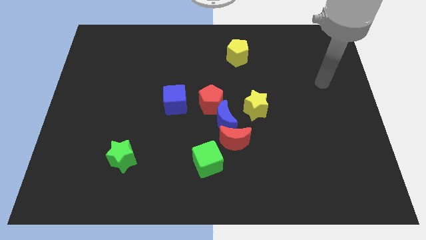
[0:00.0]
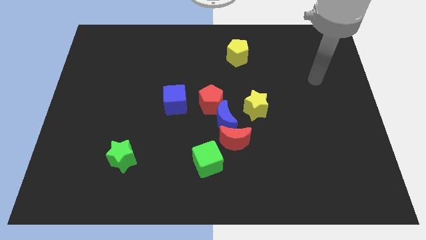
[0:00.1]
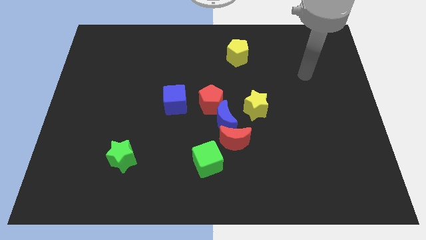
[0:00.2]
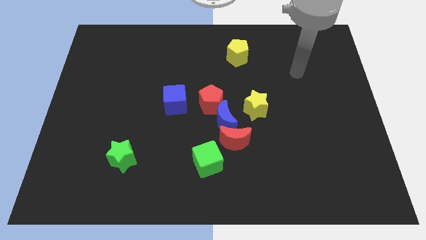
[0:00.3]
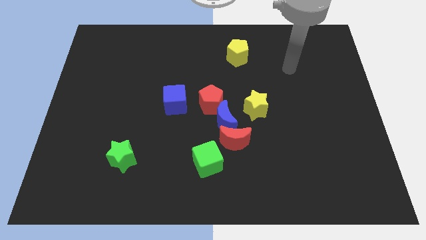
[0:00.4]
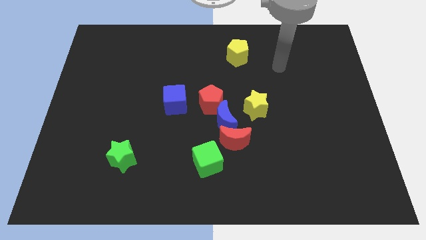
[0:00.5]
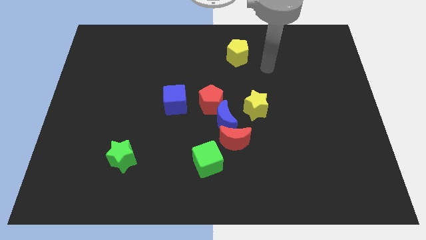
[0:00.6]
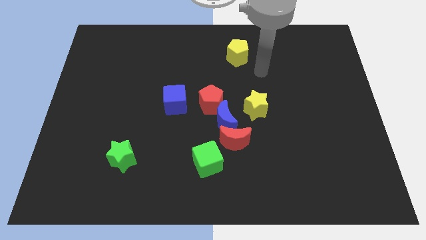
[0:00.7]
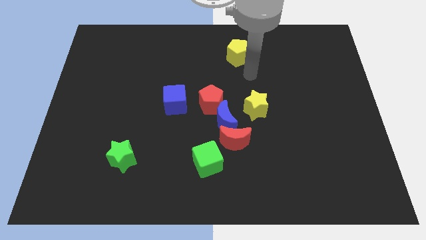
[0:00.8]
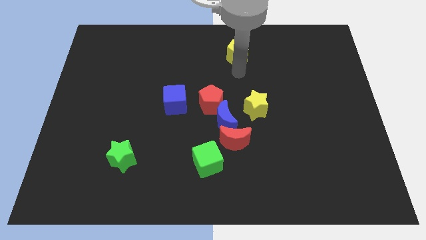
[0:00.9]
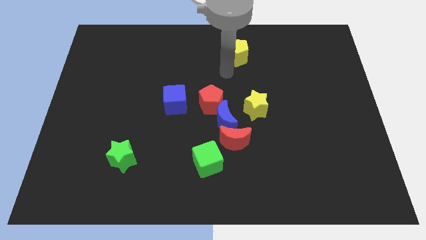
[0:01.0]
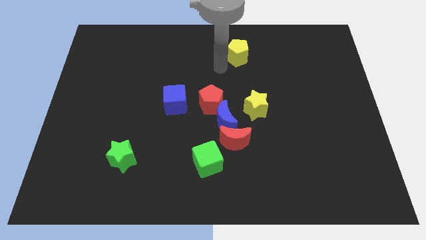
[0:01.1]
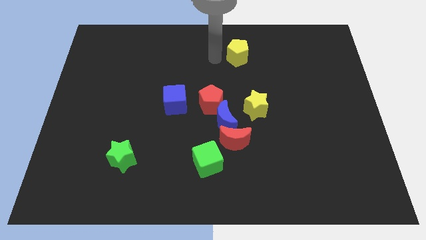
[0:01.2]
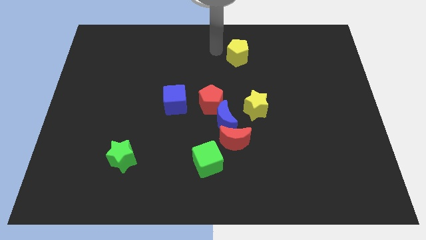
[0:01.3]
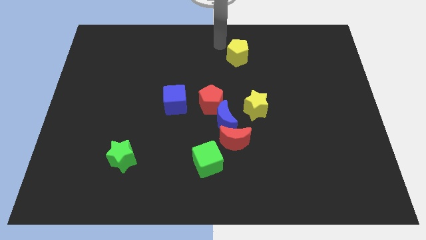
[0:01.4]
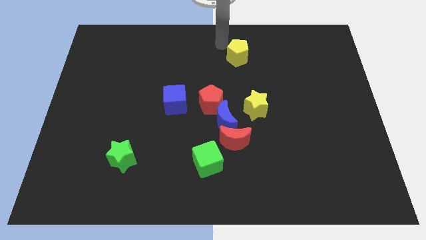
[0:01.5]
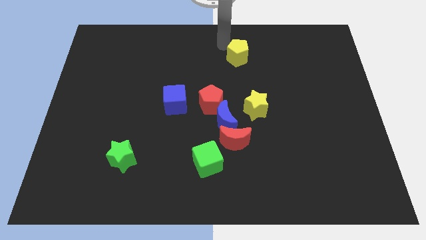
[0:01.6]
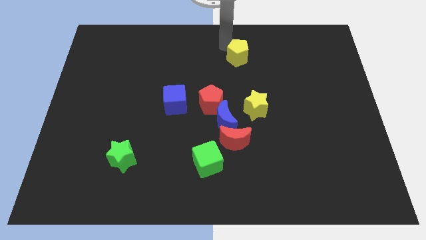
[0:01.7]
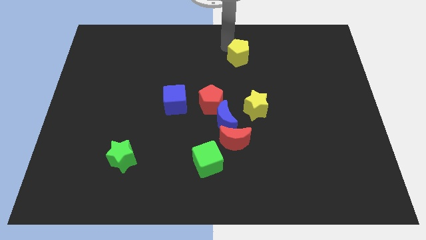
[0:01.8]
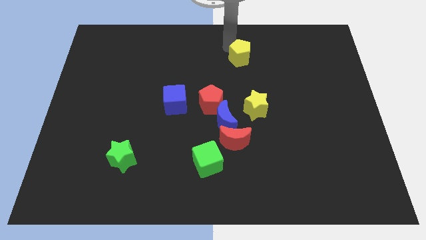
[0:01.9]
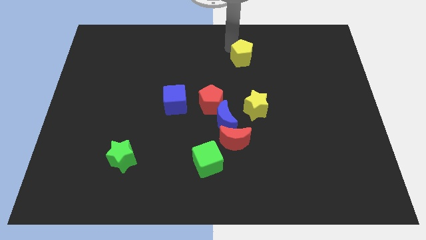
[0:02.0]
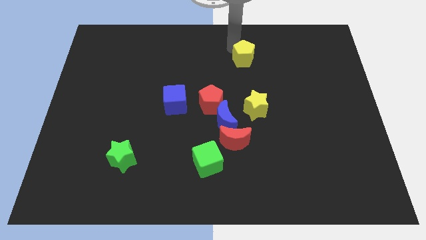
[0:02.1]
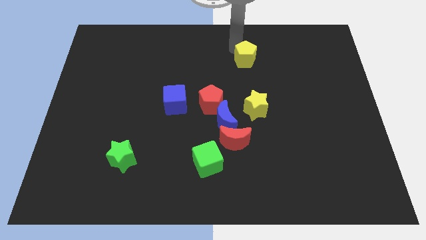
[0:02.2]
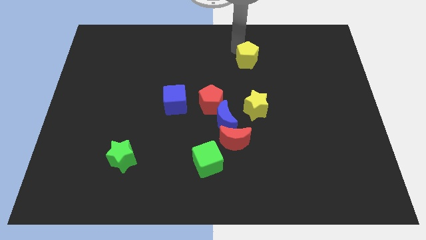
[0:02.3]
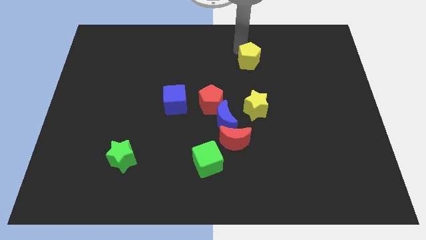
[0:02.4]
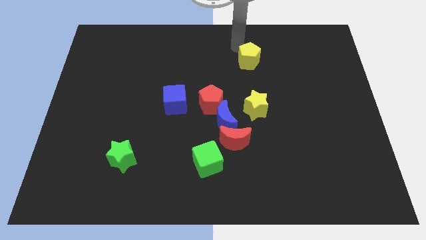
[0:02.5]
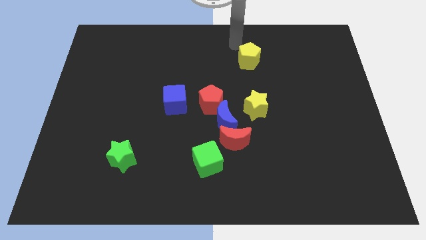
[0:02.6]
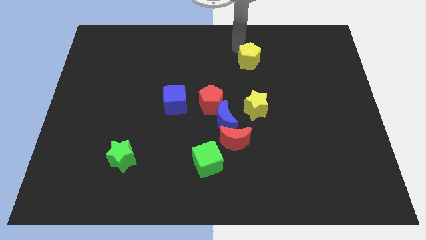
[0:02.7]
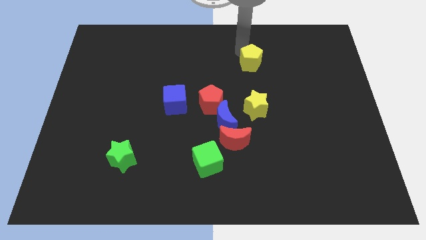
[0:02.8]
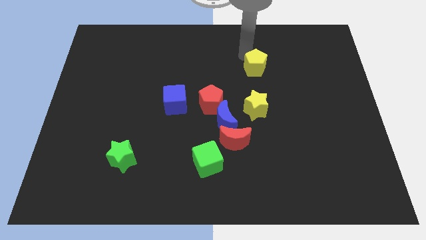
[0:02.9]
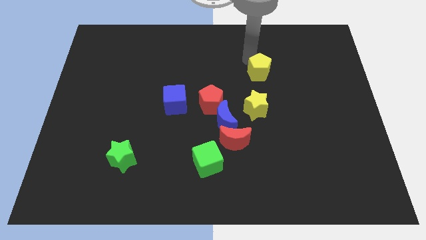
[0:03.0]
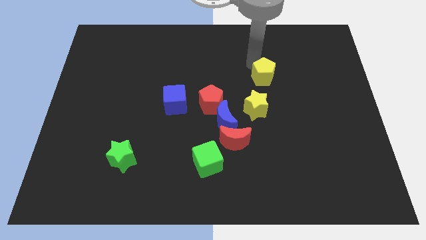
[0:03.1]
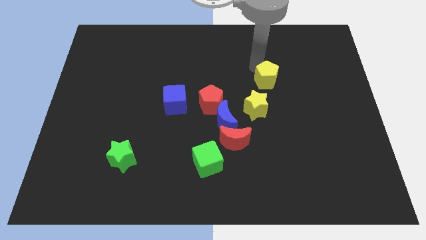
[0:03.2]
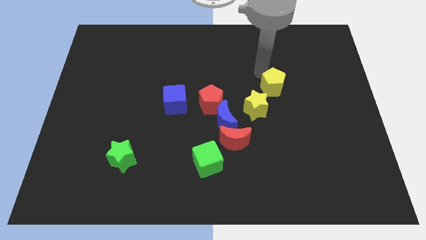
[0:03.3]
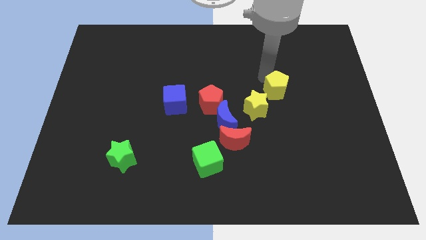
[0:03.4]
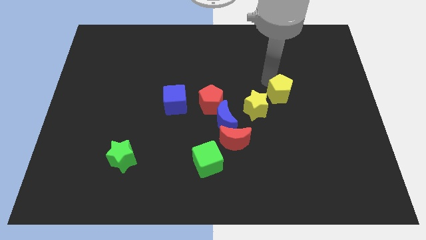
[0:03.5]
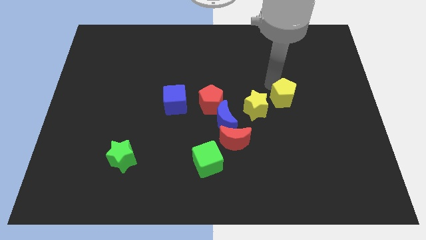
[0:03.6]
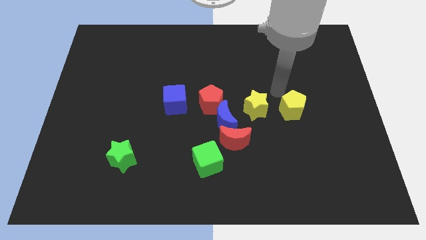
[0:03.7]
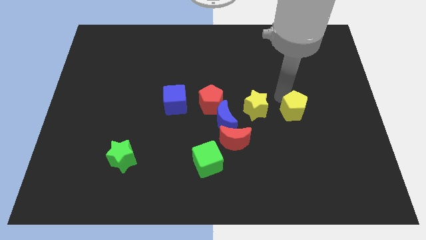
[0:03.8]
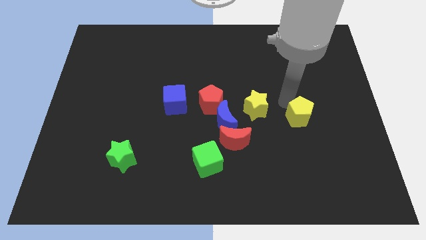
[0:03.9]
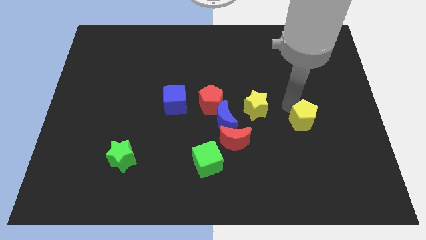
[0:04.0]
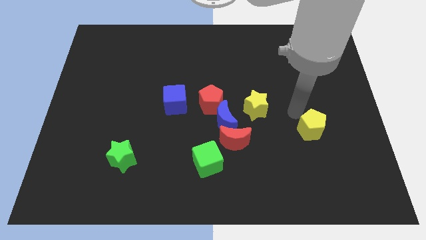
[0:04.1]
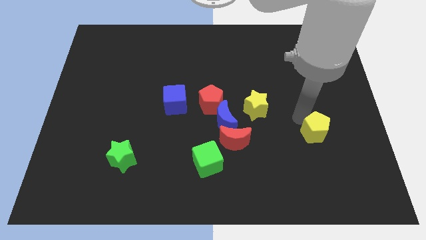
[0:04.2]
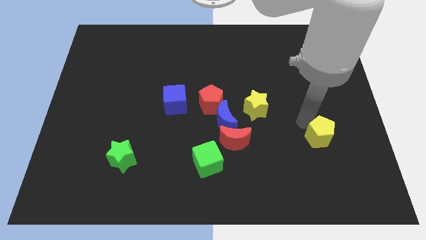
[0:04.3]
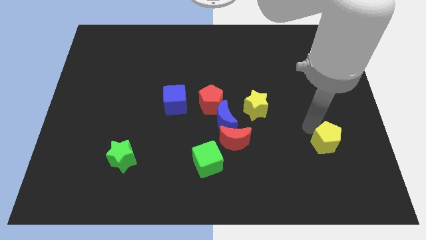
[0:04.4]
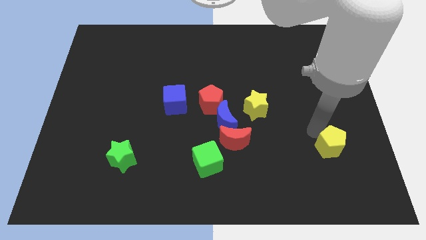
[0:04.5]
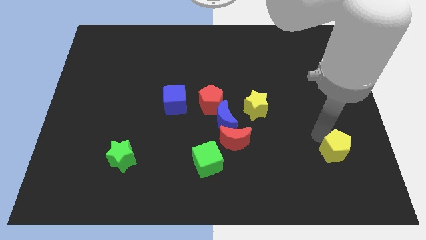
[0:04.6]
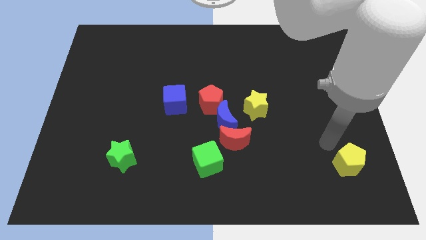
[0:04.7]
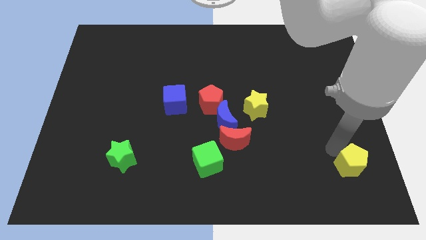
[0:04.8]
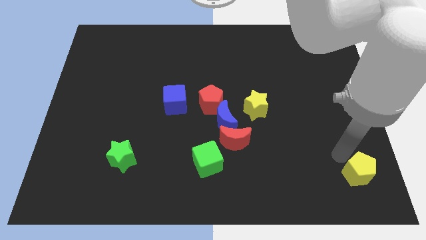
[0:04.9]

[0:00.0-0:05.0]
push the yellow pentagon to the bottom right

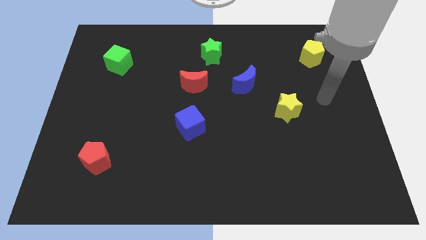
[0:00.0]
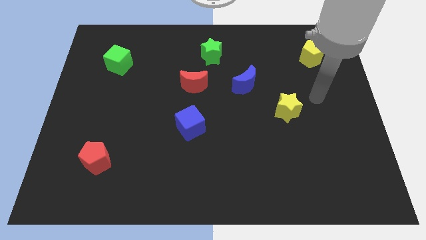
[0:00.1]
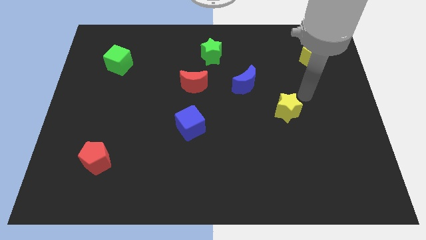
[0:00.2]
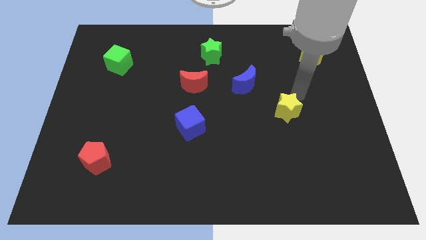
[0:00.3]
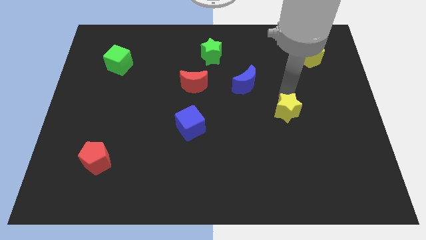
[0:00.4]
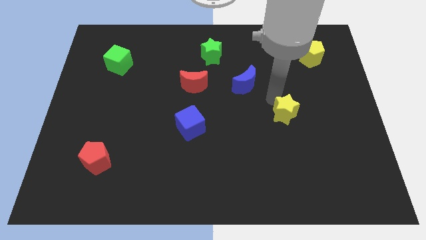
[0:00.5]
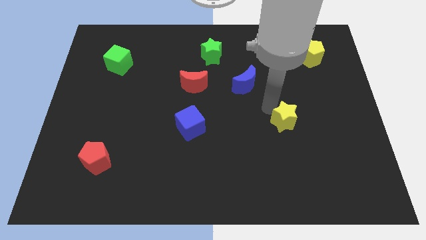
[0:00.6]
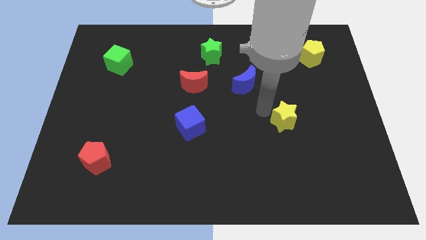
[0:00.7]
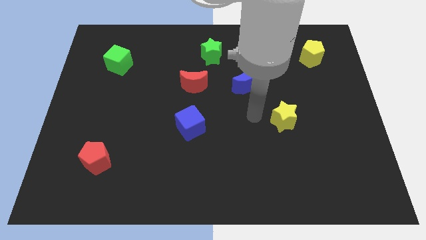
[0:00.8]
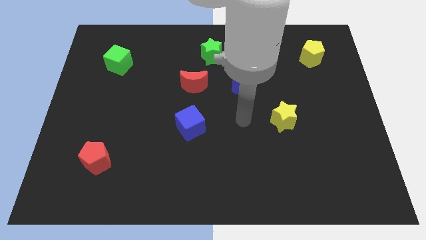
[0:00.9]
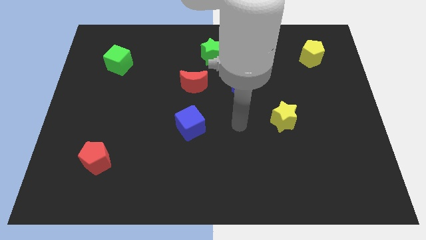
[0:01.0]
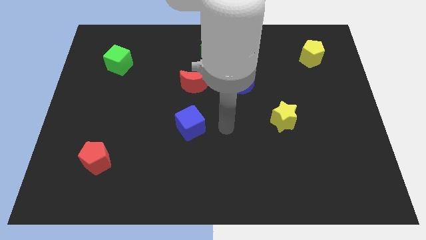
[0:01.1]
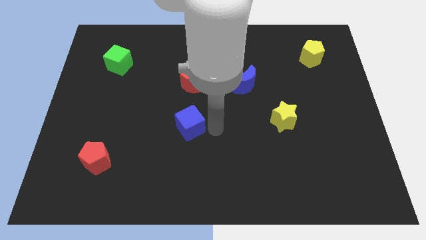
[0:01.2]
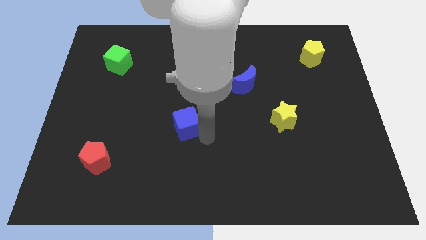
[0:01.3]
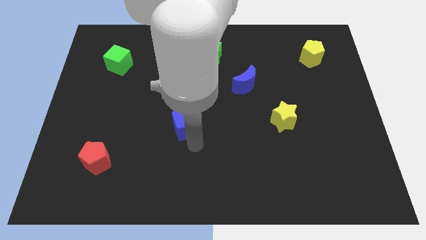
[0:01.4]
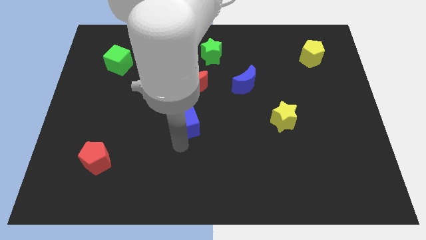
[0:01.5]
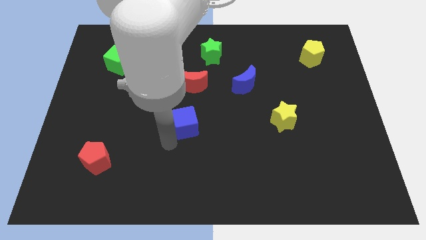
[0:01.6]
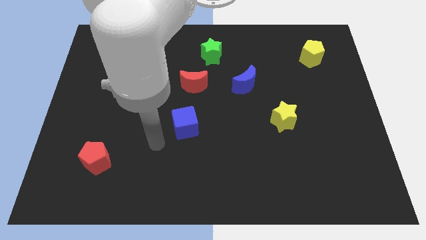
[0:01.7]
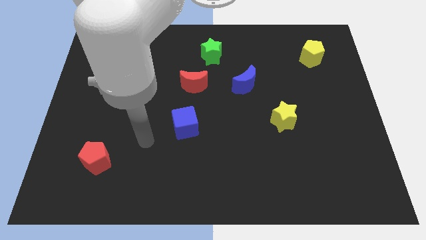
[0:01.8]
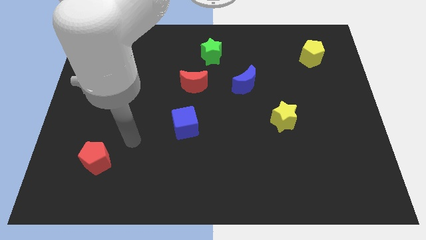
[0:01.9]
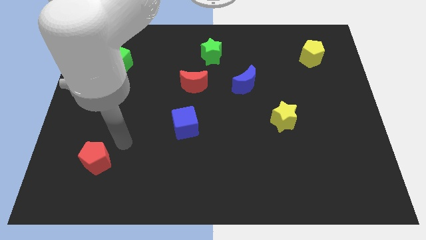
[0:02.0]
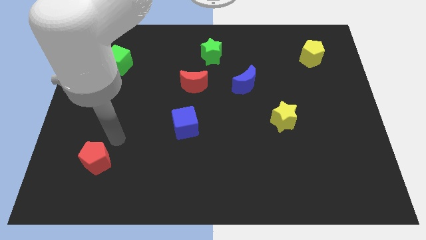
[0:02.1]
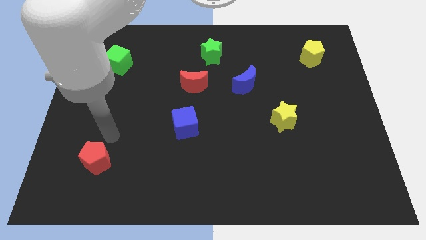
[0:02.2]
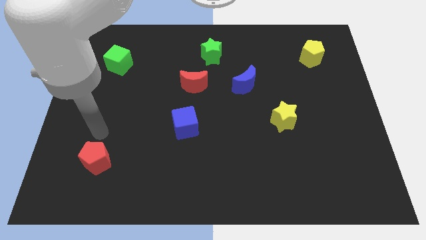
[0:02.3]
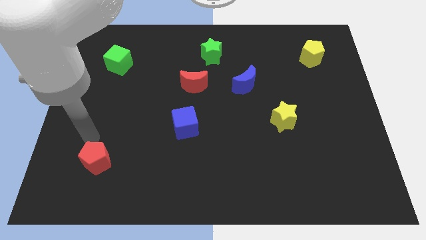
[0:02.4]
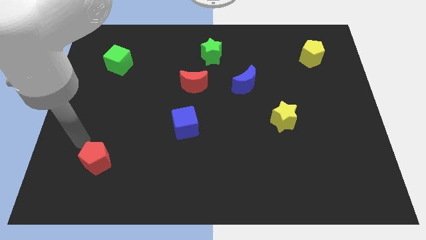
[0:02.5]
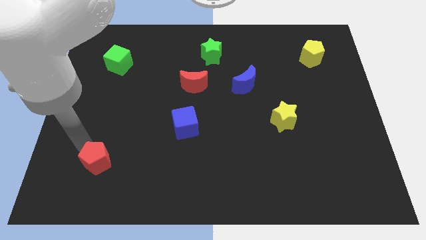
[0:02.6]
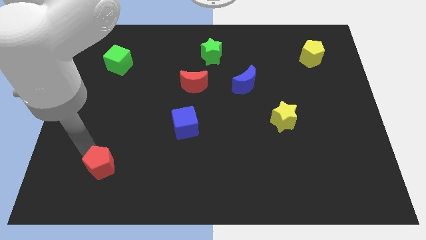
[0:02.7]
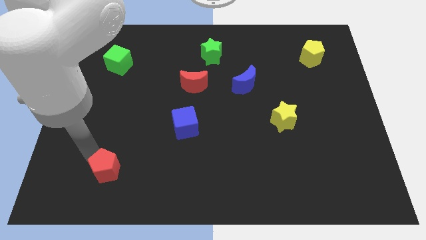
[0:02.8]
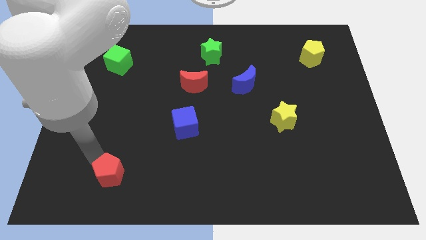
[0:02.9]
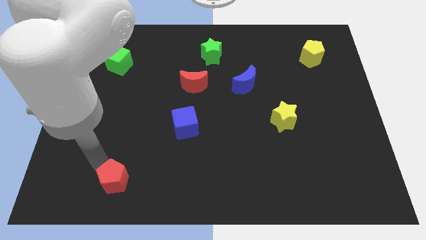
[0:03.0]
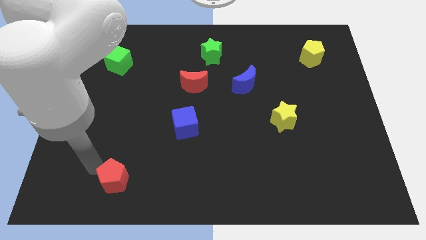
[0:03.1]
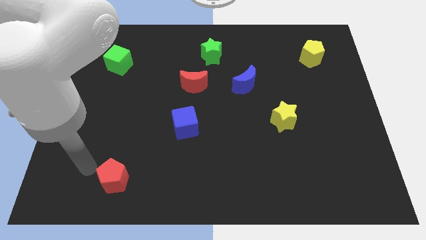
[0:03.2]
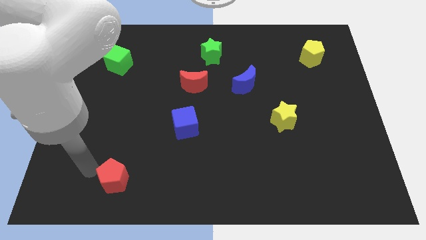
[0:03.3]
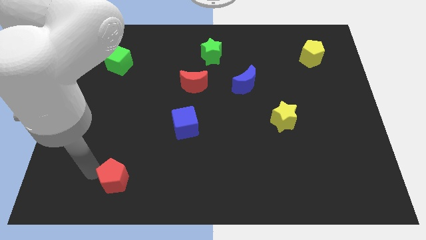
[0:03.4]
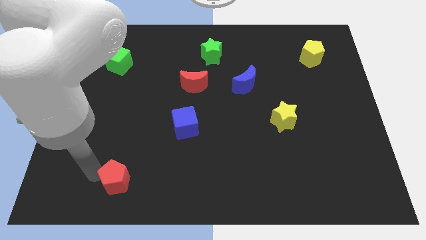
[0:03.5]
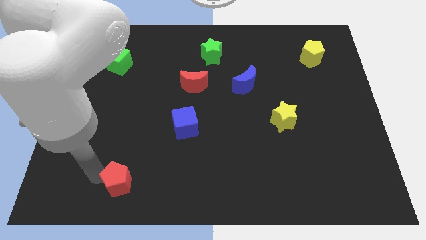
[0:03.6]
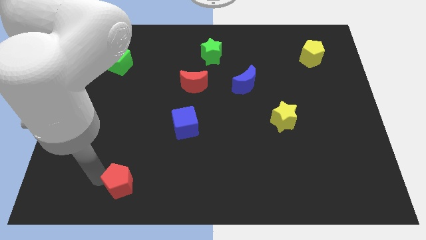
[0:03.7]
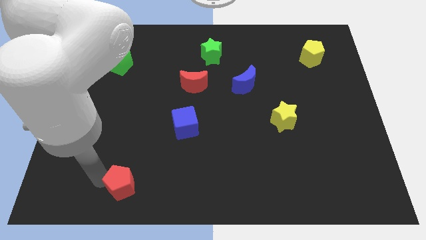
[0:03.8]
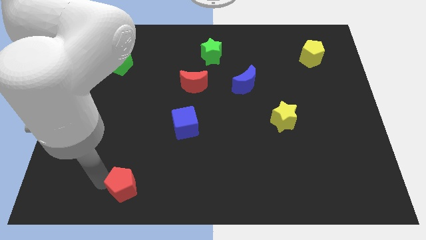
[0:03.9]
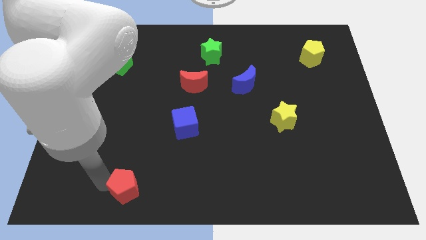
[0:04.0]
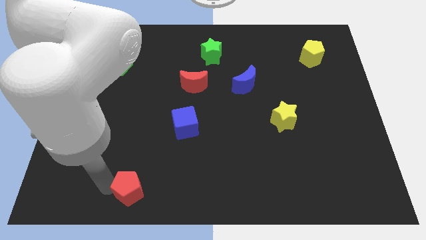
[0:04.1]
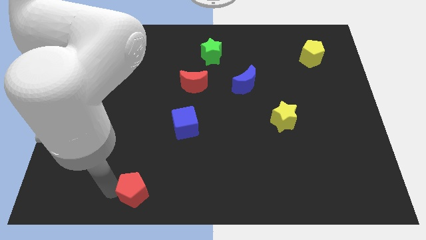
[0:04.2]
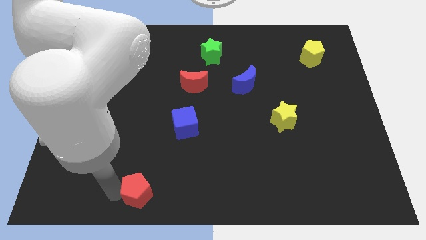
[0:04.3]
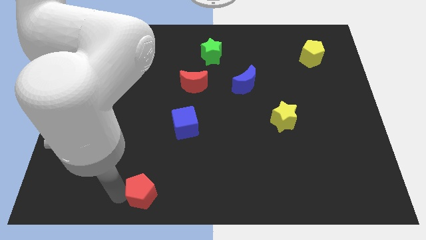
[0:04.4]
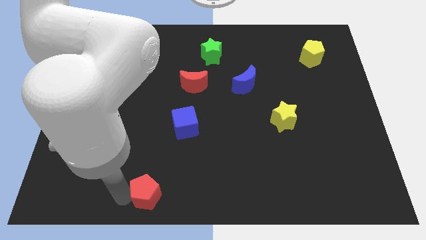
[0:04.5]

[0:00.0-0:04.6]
move the red pentagon to the bottom
